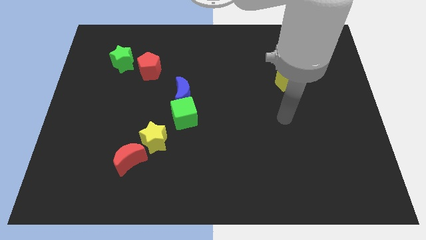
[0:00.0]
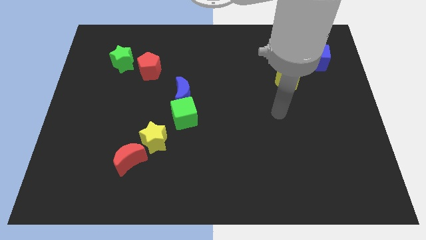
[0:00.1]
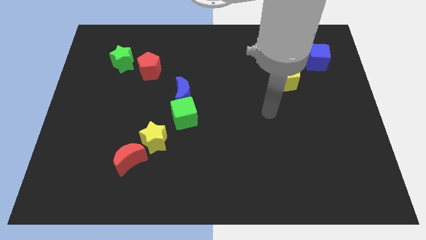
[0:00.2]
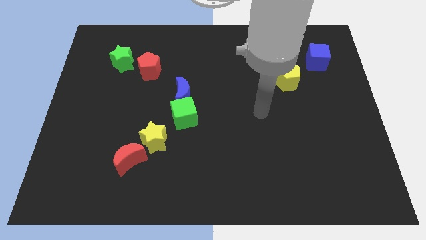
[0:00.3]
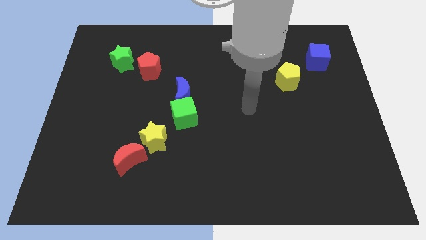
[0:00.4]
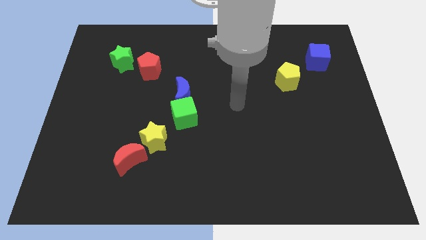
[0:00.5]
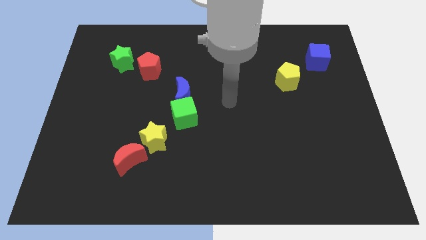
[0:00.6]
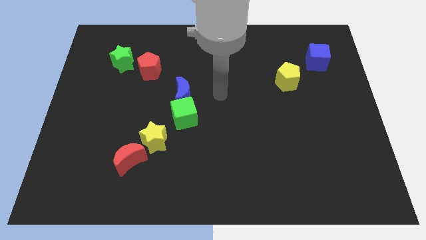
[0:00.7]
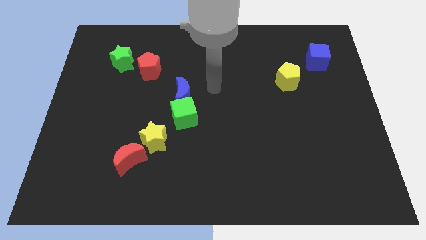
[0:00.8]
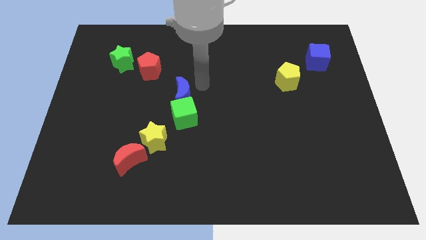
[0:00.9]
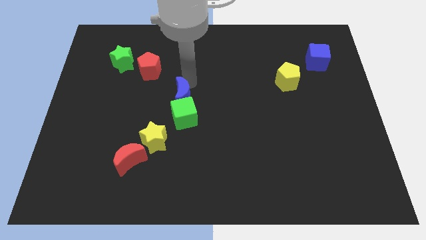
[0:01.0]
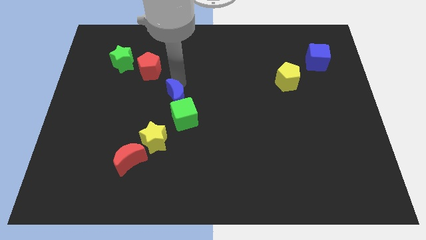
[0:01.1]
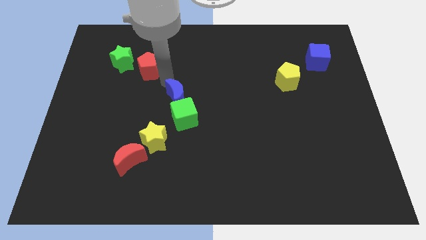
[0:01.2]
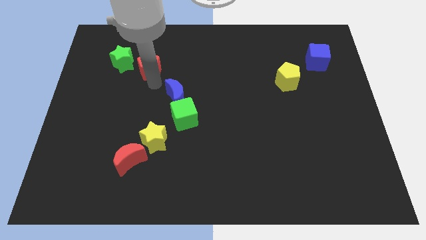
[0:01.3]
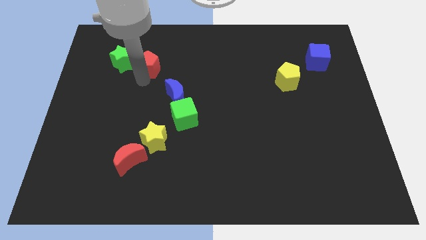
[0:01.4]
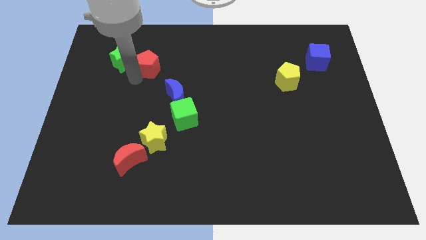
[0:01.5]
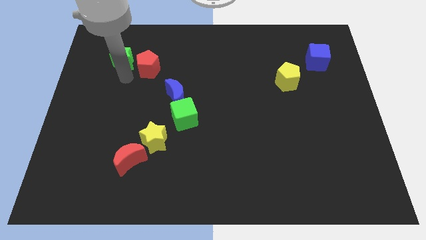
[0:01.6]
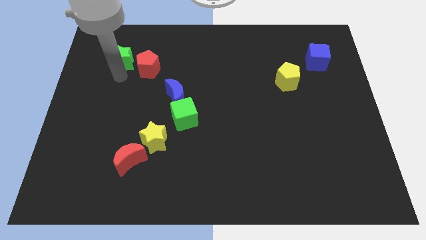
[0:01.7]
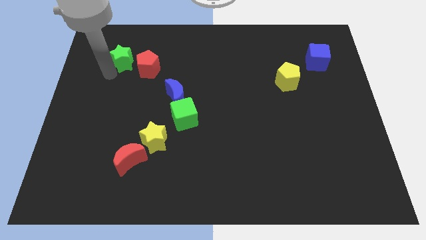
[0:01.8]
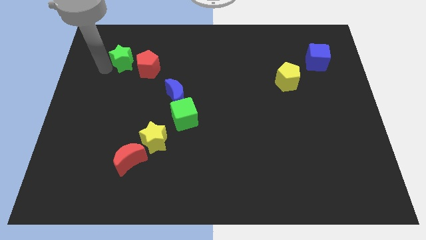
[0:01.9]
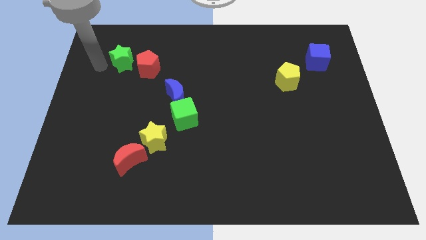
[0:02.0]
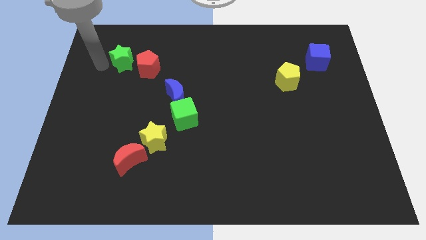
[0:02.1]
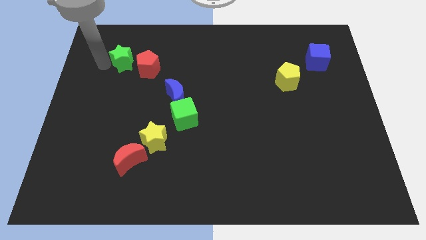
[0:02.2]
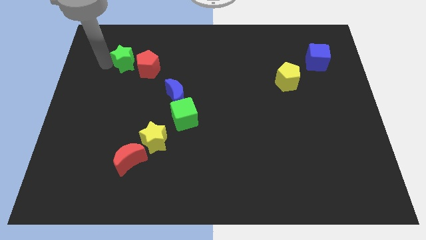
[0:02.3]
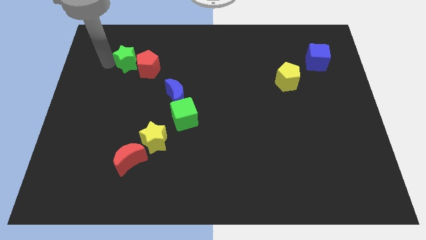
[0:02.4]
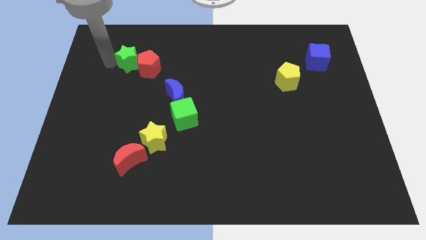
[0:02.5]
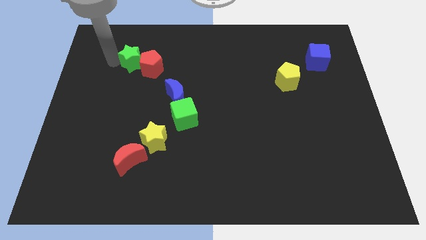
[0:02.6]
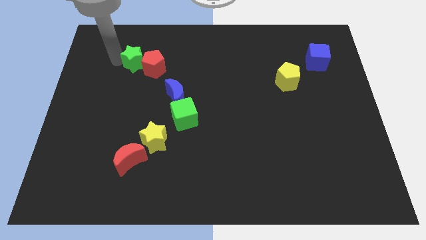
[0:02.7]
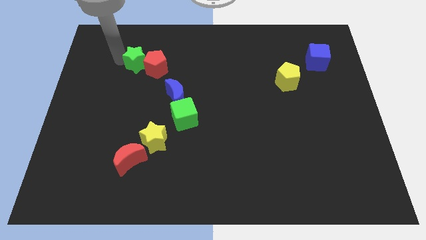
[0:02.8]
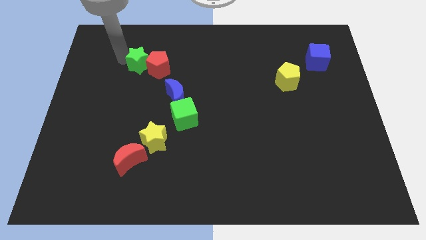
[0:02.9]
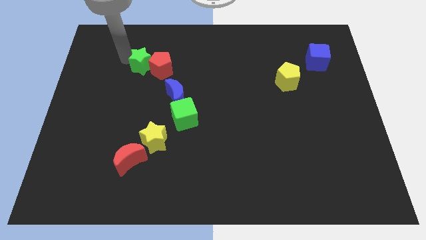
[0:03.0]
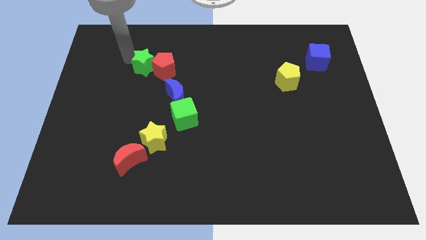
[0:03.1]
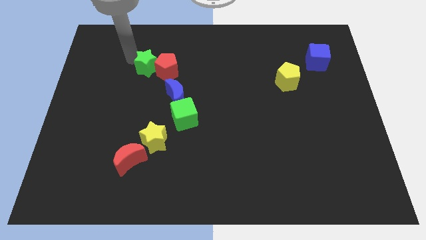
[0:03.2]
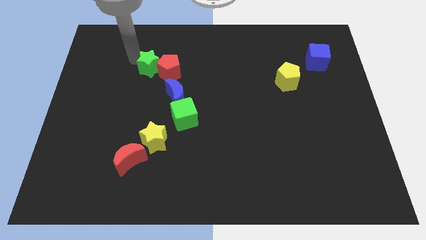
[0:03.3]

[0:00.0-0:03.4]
slightly push the green star right

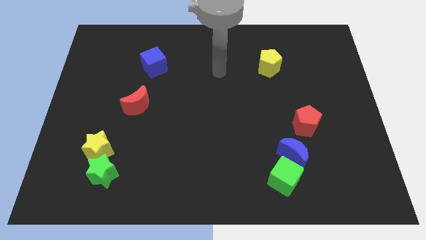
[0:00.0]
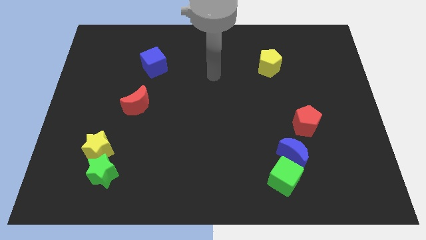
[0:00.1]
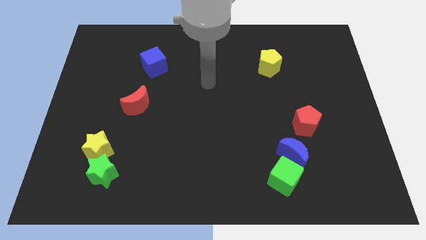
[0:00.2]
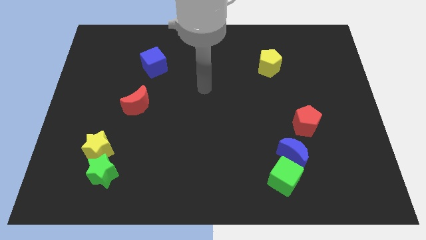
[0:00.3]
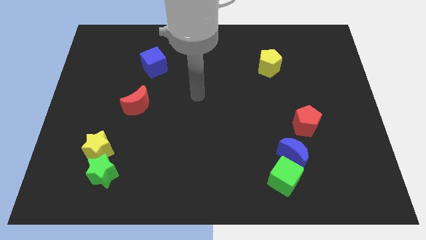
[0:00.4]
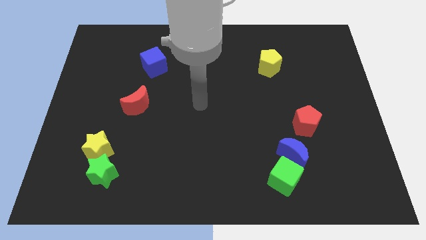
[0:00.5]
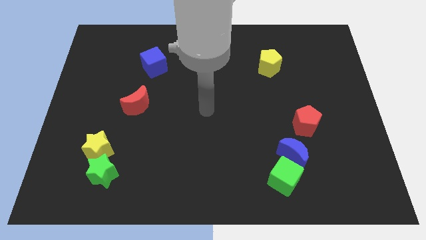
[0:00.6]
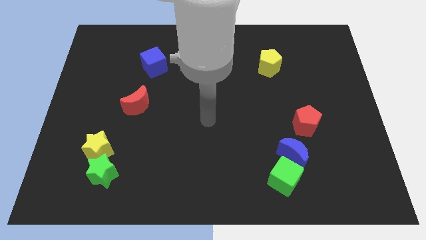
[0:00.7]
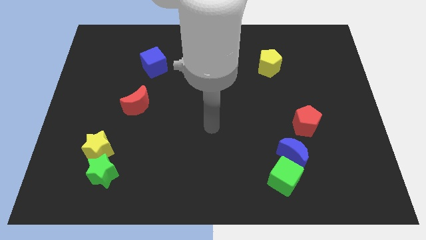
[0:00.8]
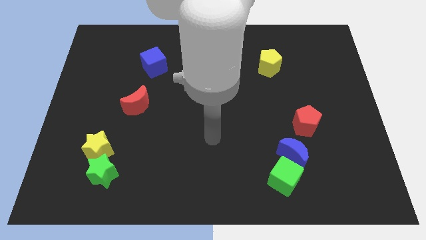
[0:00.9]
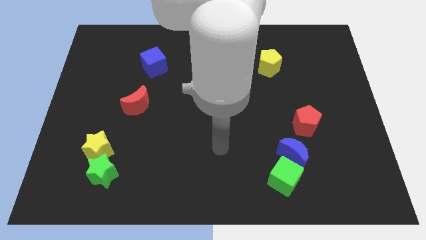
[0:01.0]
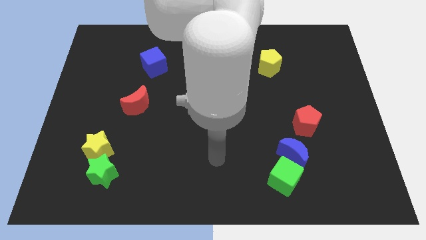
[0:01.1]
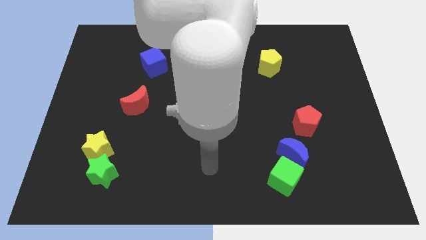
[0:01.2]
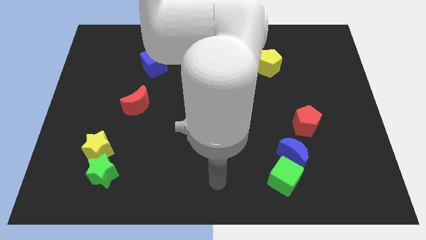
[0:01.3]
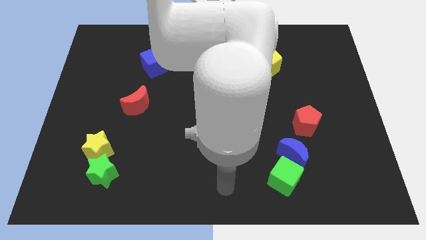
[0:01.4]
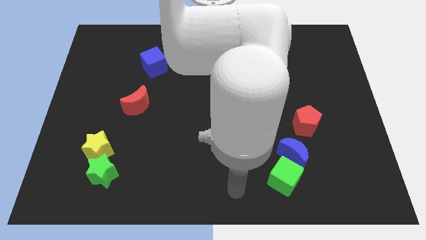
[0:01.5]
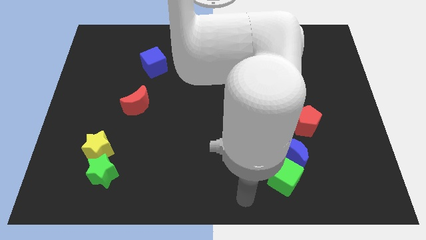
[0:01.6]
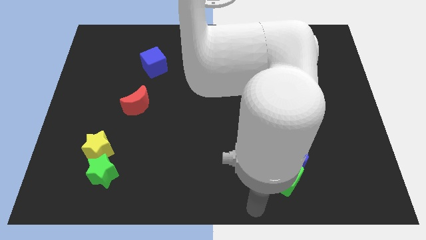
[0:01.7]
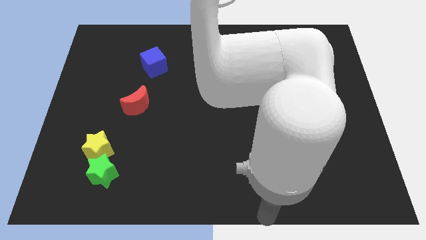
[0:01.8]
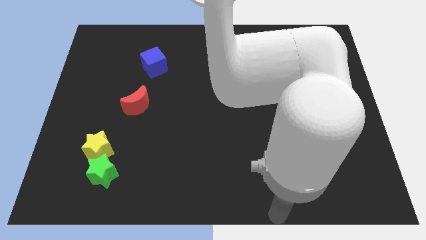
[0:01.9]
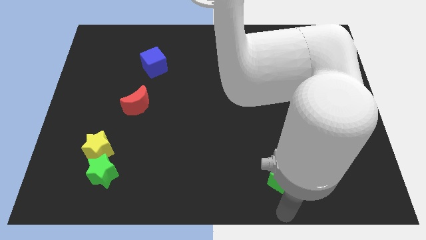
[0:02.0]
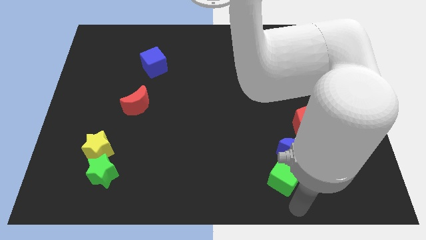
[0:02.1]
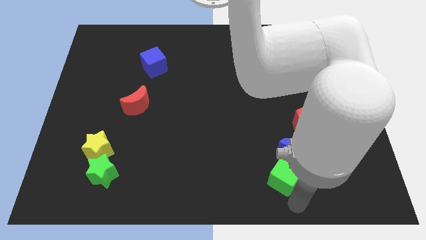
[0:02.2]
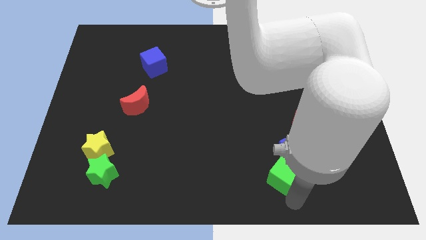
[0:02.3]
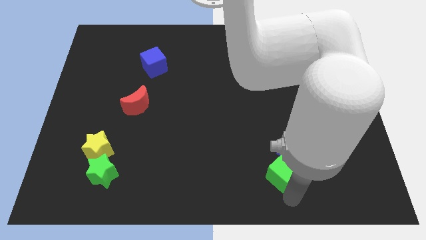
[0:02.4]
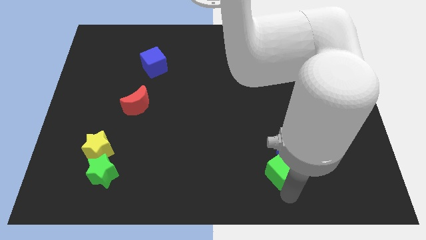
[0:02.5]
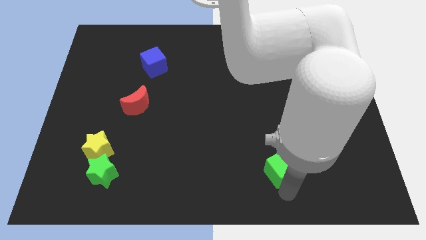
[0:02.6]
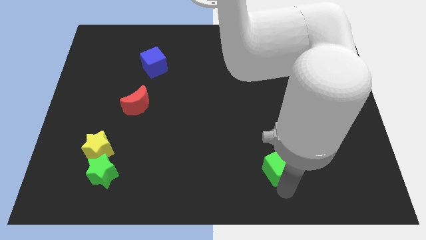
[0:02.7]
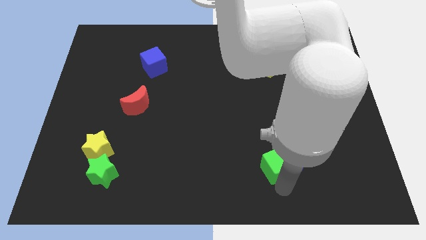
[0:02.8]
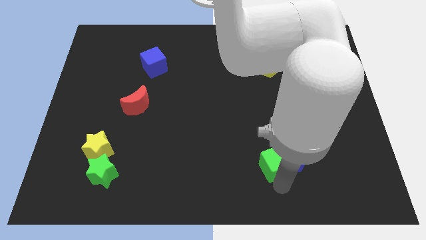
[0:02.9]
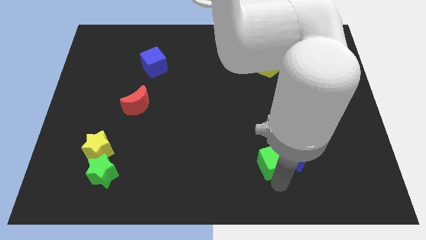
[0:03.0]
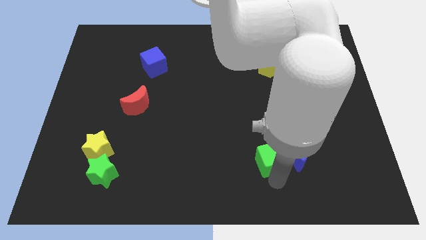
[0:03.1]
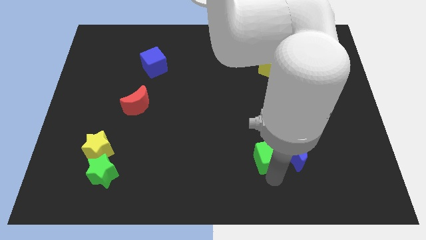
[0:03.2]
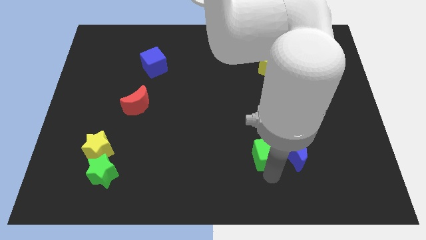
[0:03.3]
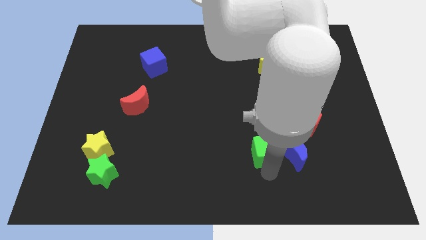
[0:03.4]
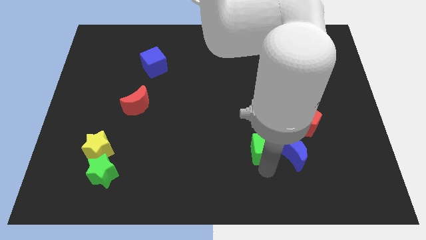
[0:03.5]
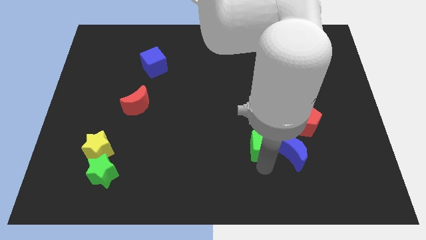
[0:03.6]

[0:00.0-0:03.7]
push the green cube a bit up

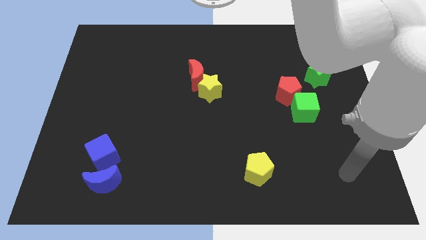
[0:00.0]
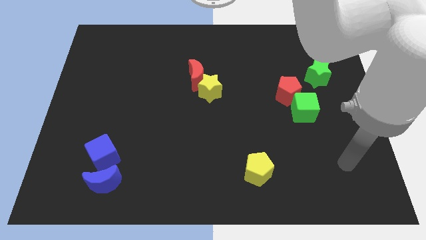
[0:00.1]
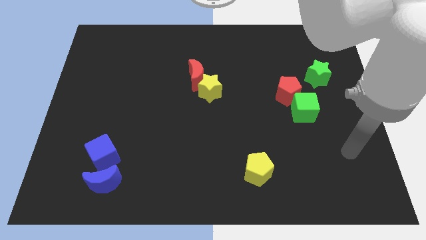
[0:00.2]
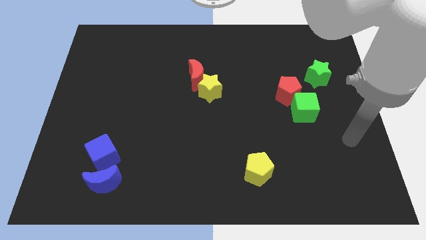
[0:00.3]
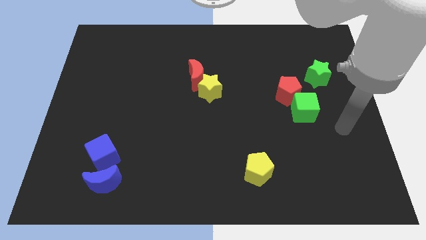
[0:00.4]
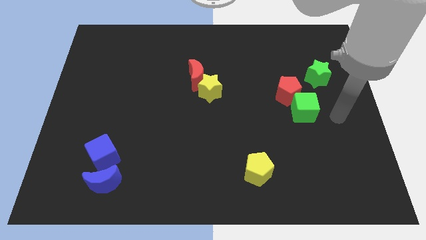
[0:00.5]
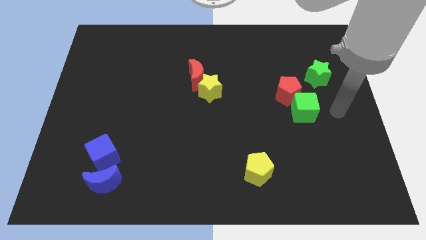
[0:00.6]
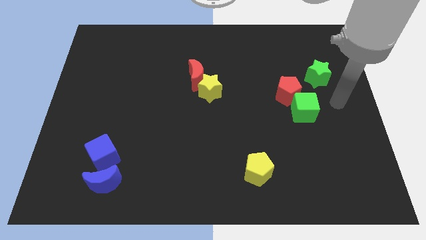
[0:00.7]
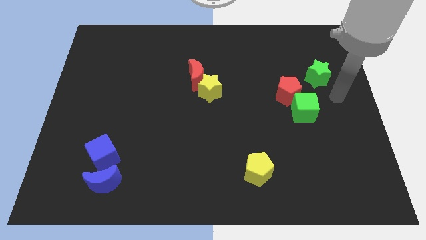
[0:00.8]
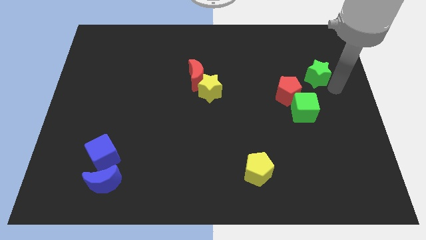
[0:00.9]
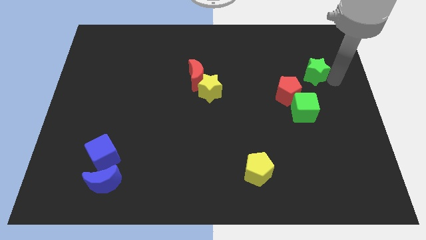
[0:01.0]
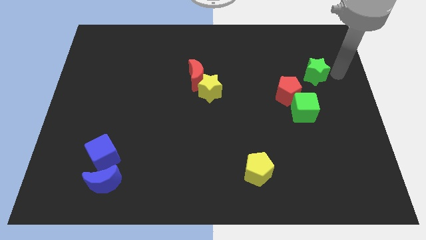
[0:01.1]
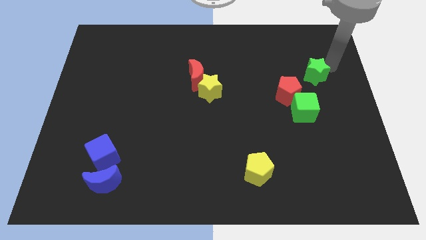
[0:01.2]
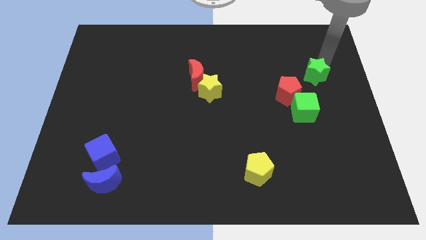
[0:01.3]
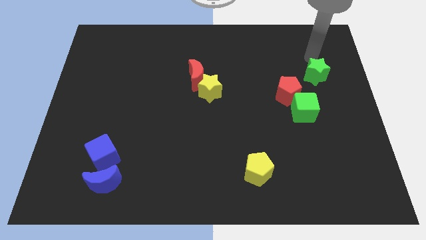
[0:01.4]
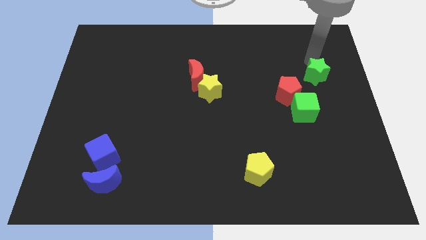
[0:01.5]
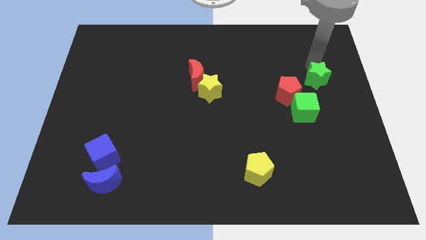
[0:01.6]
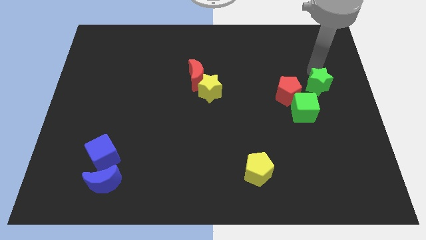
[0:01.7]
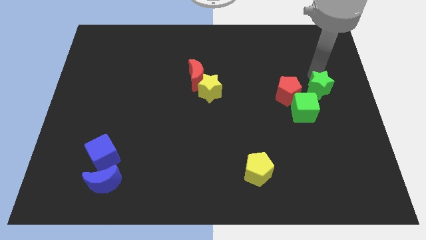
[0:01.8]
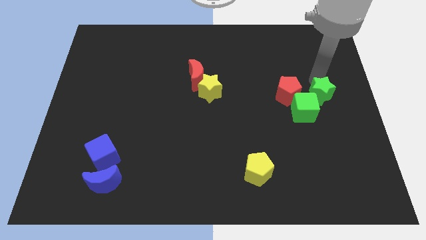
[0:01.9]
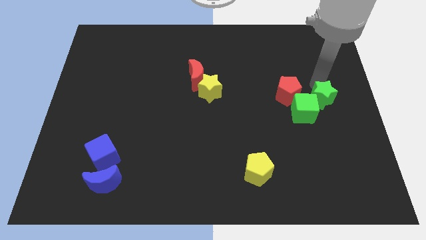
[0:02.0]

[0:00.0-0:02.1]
slightly move the green star downwards
